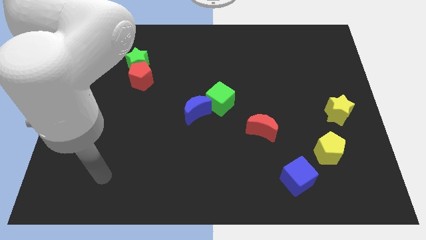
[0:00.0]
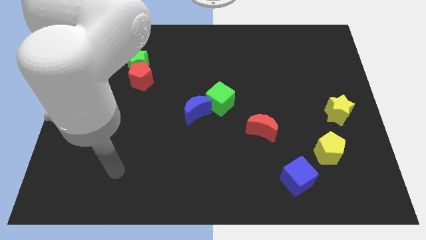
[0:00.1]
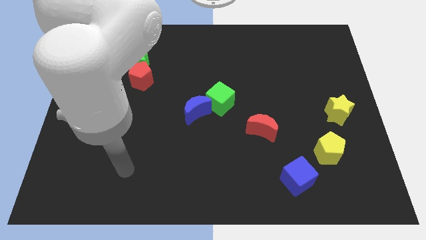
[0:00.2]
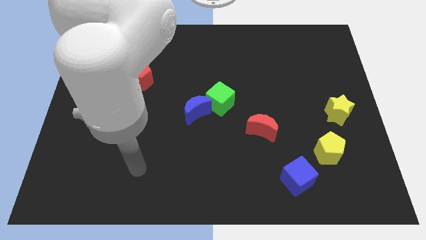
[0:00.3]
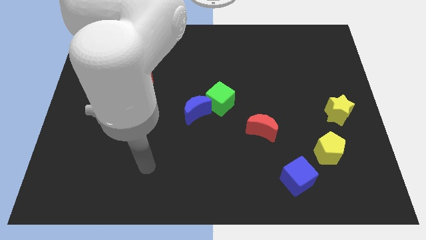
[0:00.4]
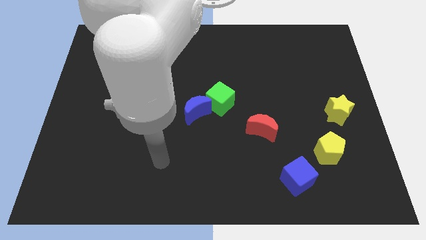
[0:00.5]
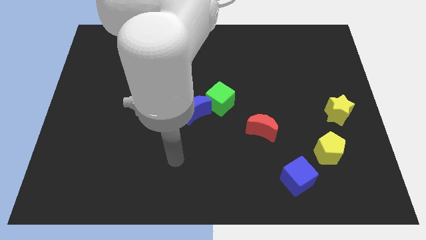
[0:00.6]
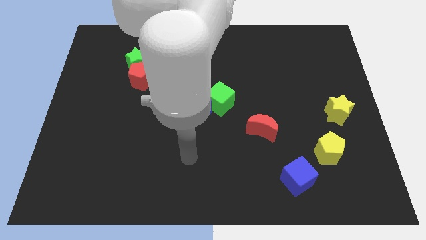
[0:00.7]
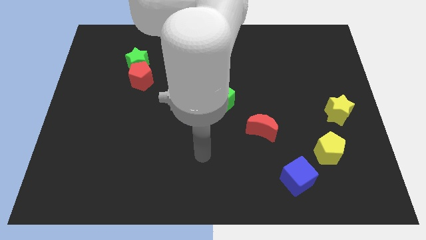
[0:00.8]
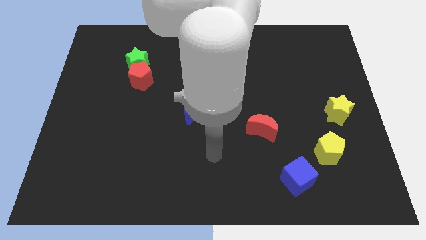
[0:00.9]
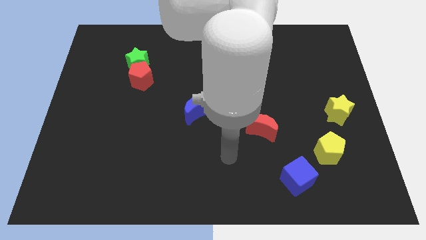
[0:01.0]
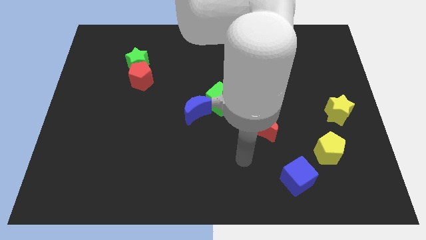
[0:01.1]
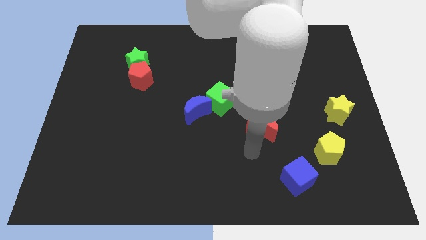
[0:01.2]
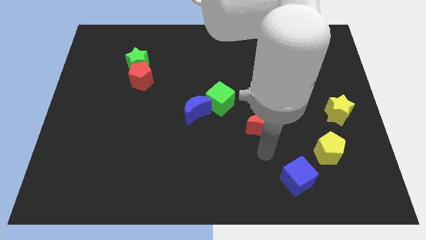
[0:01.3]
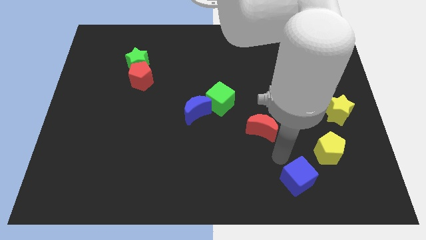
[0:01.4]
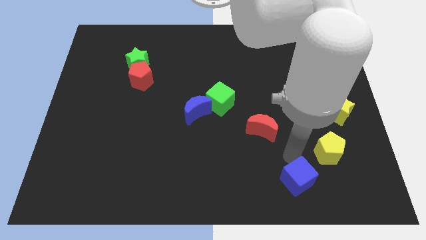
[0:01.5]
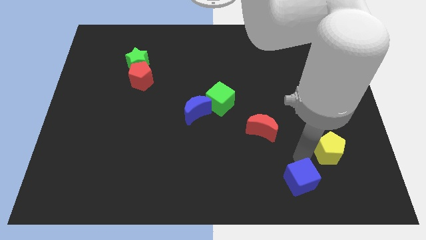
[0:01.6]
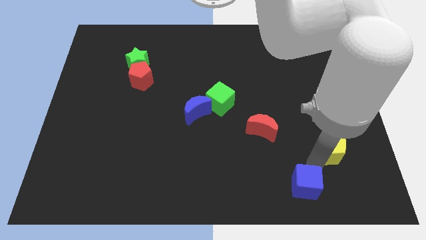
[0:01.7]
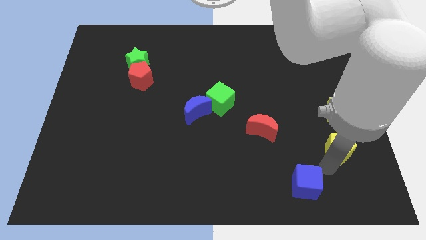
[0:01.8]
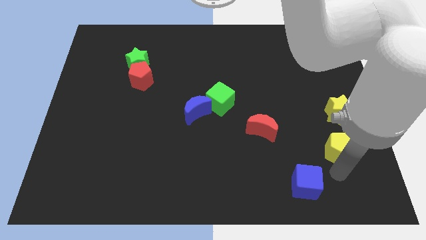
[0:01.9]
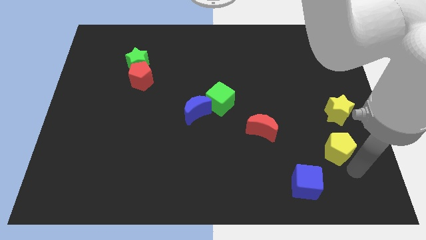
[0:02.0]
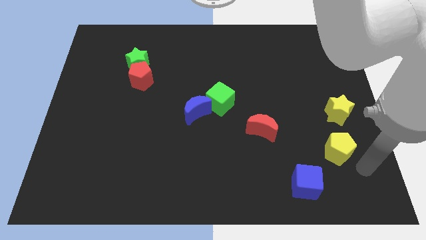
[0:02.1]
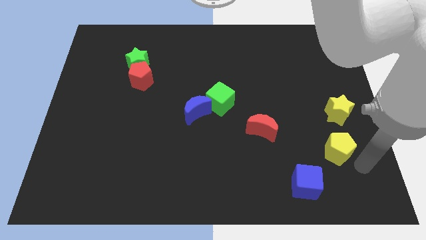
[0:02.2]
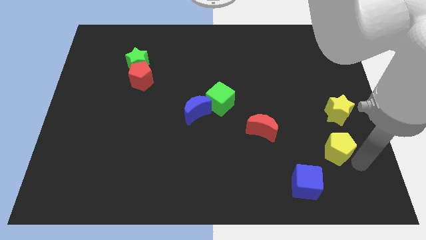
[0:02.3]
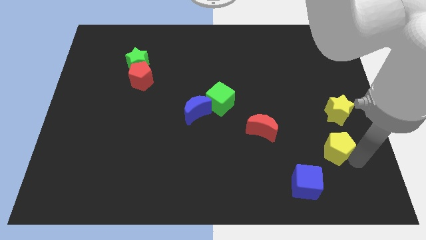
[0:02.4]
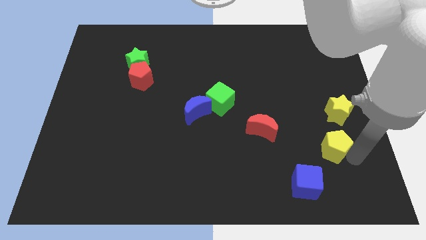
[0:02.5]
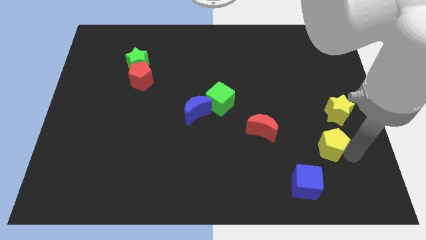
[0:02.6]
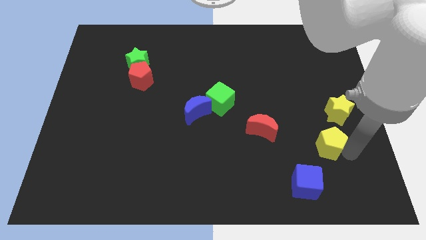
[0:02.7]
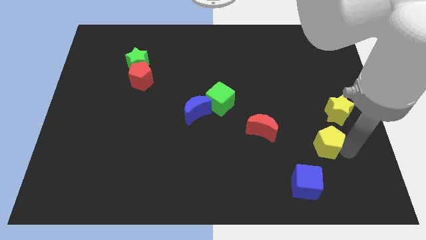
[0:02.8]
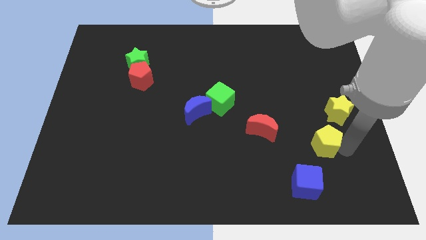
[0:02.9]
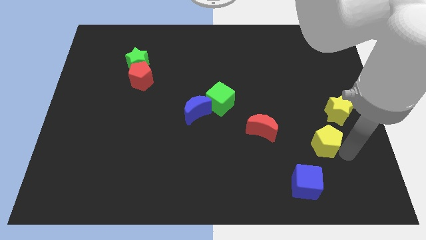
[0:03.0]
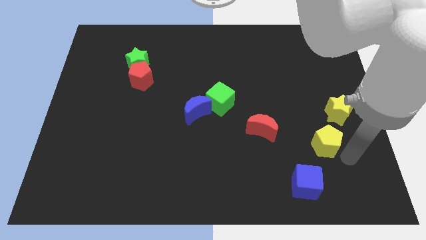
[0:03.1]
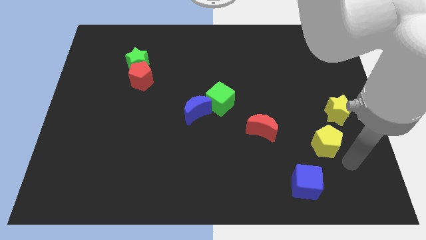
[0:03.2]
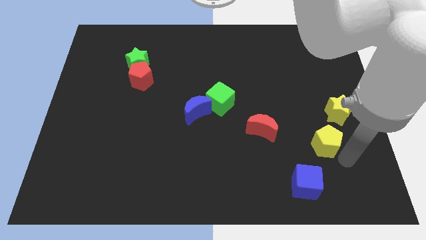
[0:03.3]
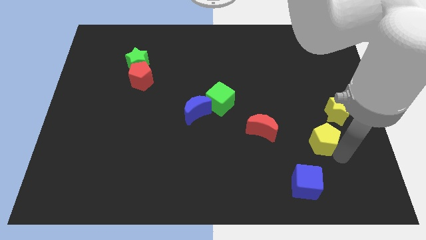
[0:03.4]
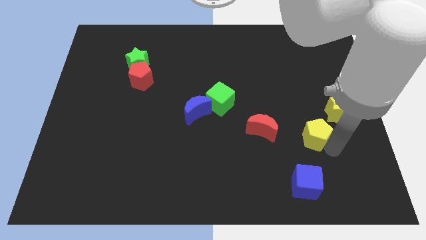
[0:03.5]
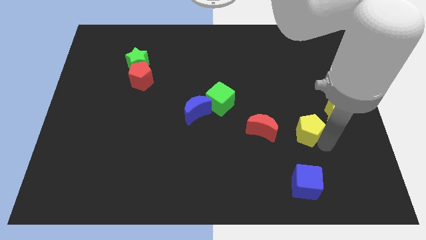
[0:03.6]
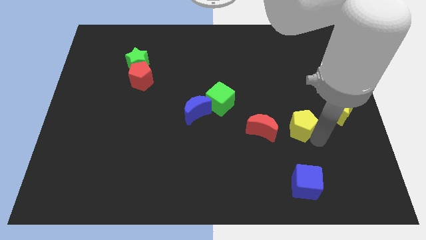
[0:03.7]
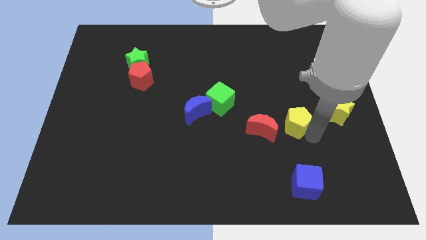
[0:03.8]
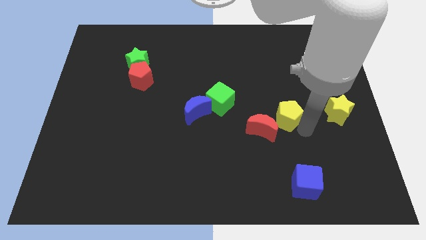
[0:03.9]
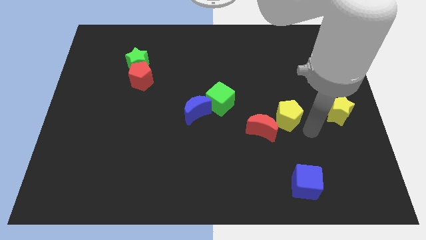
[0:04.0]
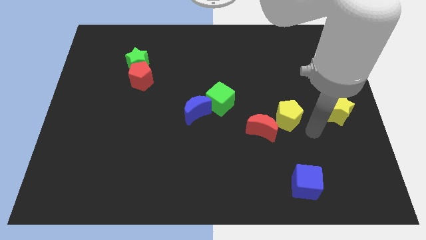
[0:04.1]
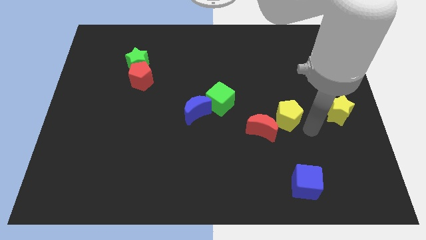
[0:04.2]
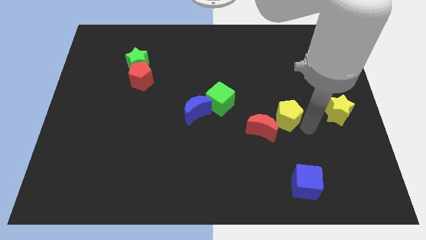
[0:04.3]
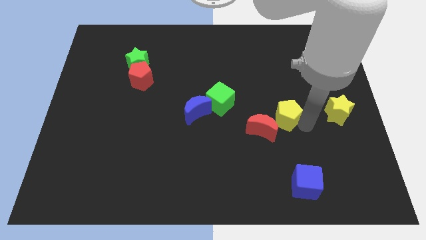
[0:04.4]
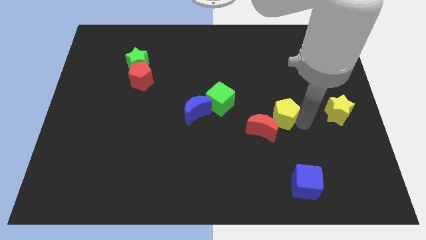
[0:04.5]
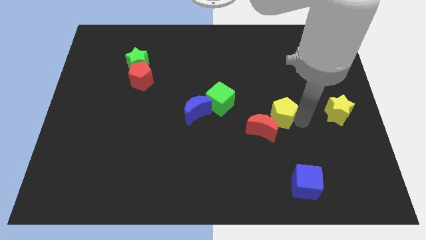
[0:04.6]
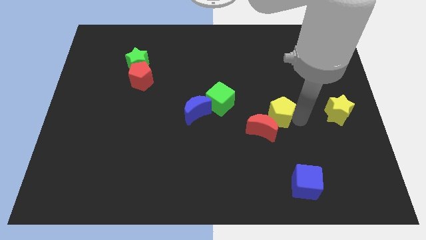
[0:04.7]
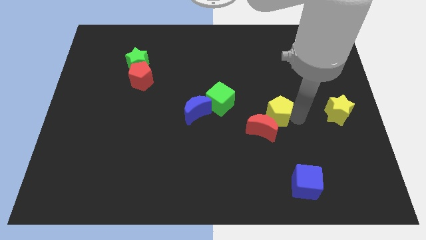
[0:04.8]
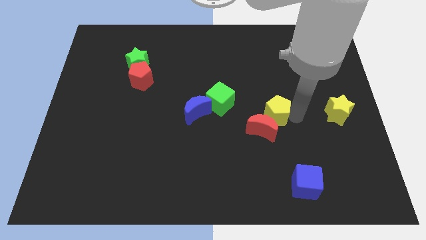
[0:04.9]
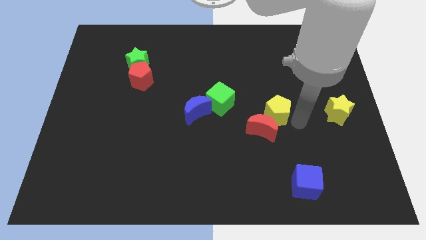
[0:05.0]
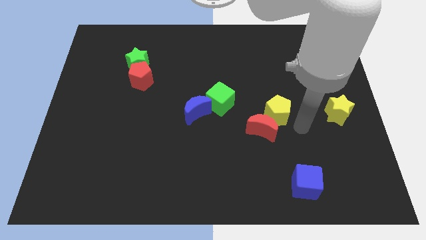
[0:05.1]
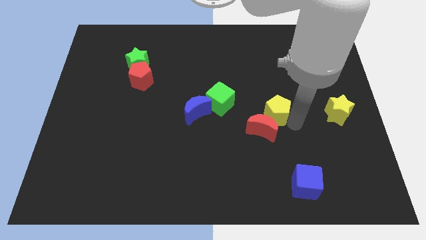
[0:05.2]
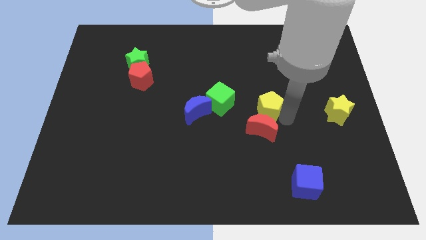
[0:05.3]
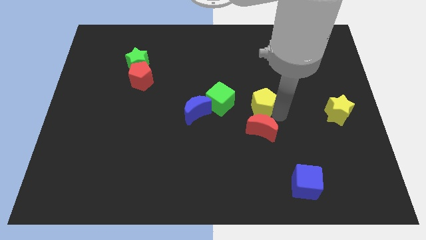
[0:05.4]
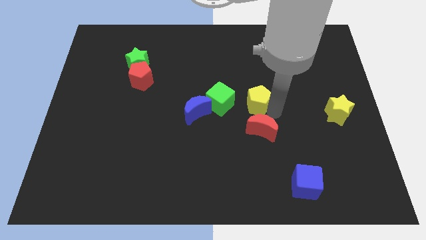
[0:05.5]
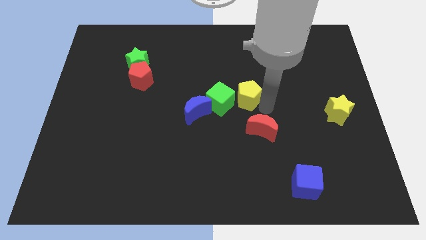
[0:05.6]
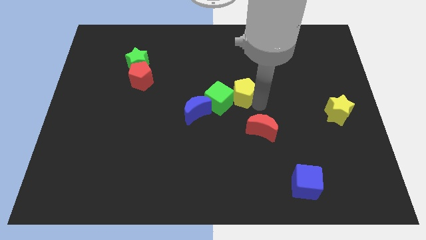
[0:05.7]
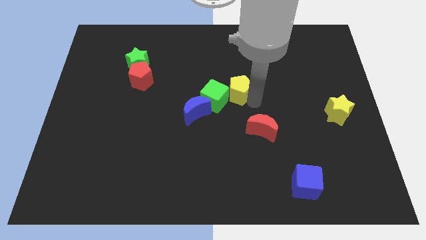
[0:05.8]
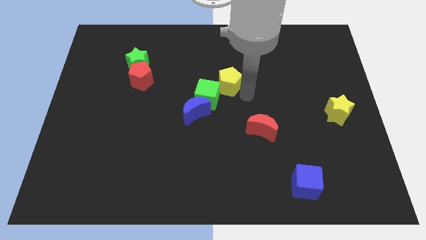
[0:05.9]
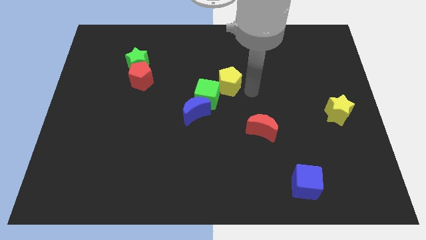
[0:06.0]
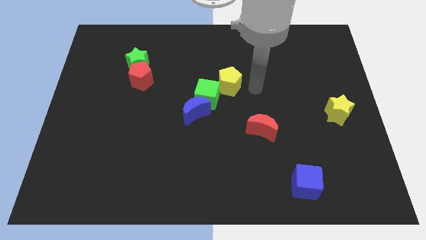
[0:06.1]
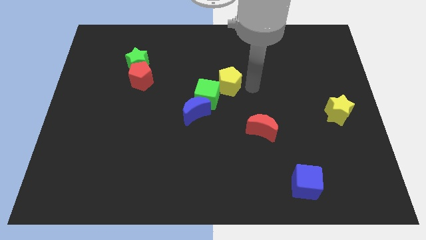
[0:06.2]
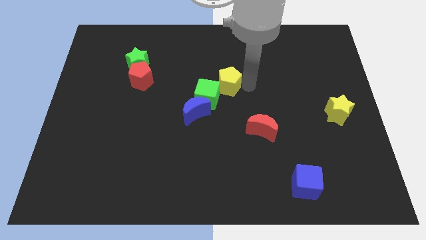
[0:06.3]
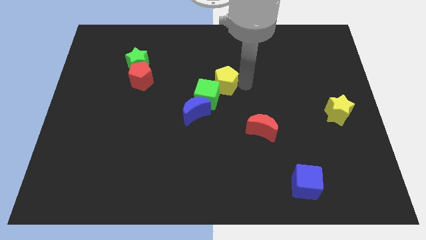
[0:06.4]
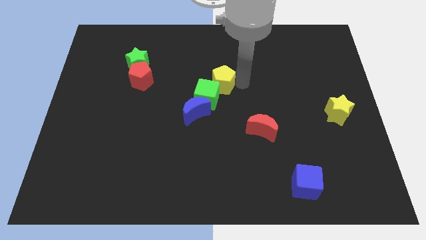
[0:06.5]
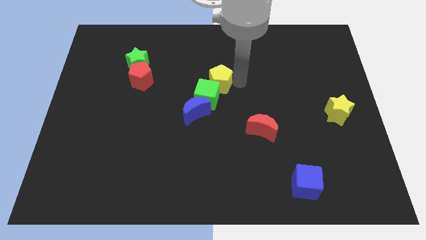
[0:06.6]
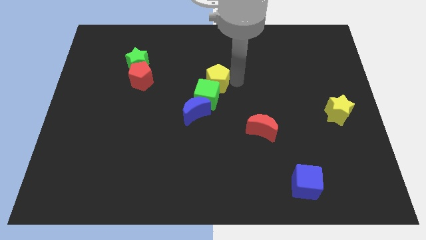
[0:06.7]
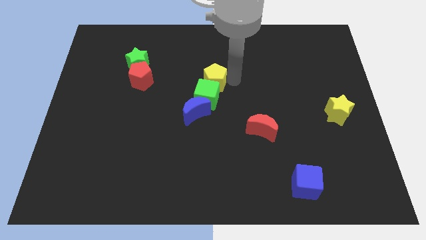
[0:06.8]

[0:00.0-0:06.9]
push the yellow pentagon above the blue moon
